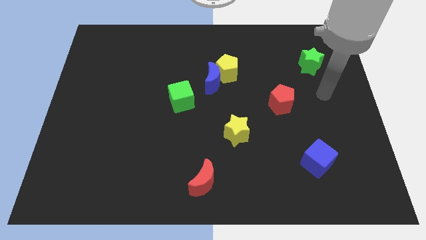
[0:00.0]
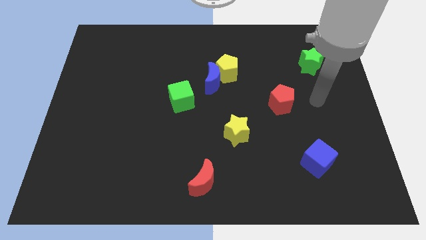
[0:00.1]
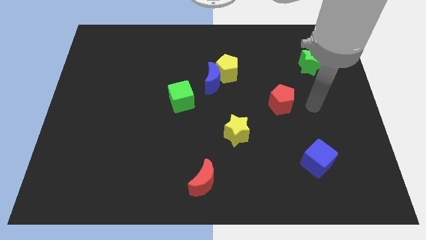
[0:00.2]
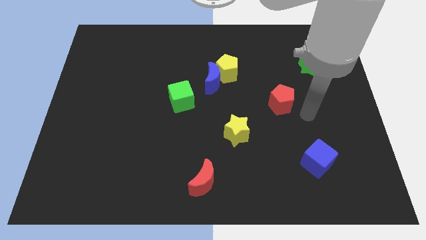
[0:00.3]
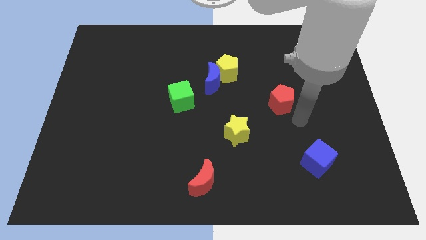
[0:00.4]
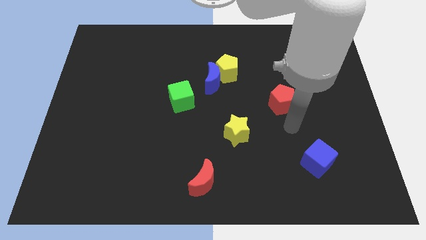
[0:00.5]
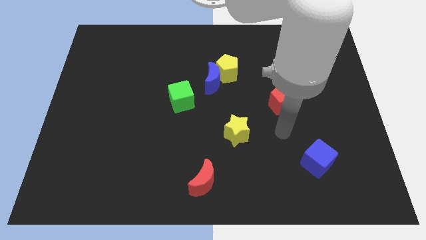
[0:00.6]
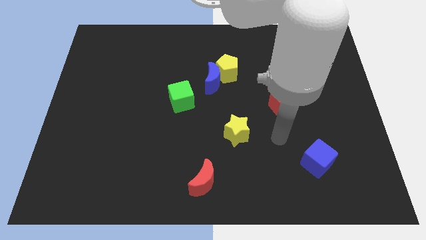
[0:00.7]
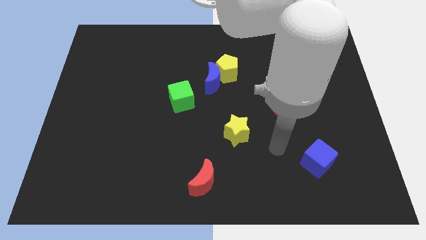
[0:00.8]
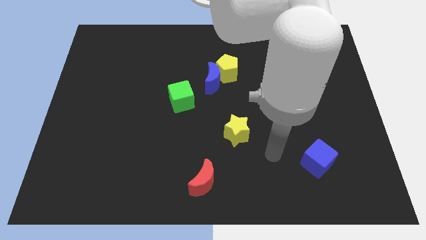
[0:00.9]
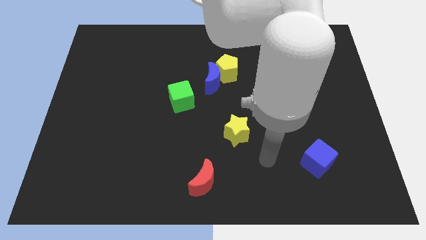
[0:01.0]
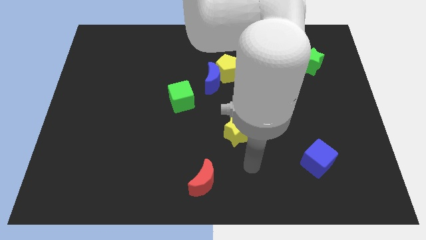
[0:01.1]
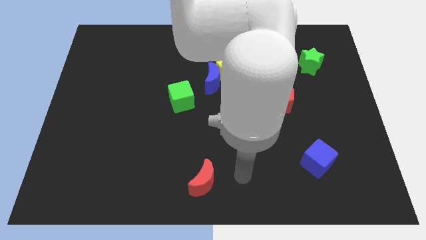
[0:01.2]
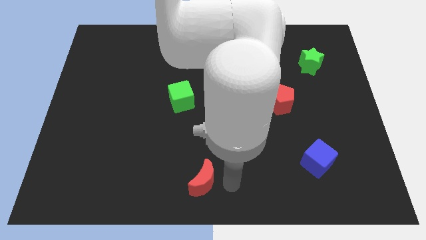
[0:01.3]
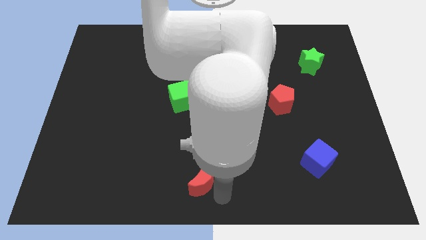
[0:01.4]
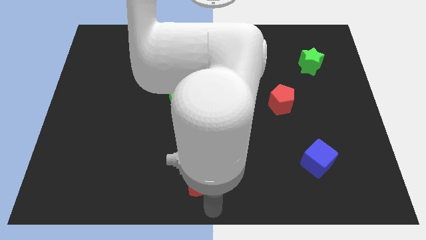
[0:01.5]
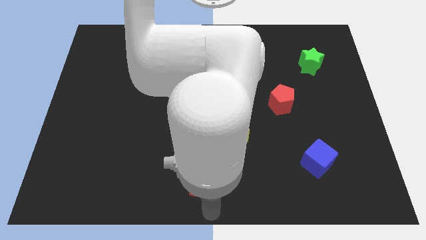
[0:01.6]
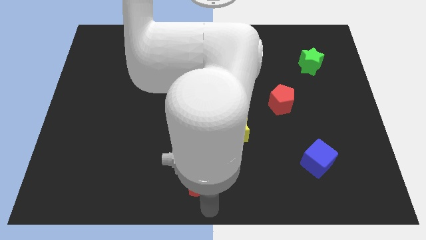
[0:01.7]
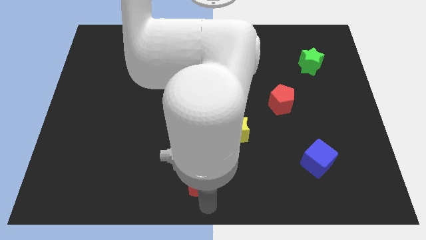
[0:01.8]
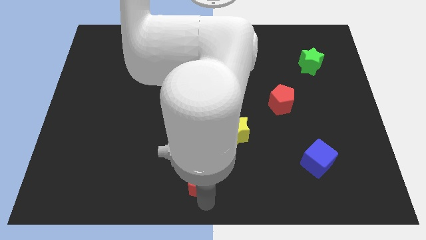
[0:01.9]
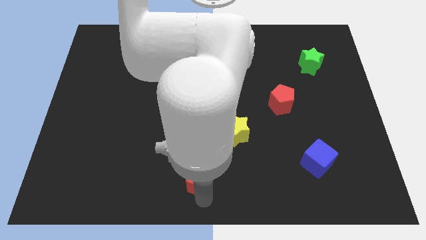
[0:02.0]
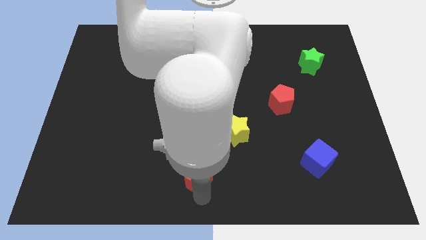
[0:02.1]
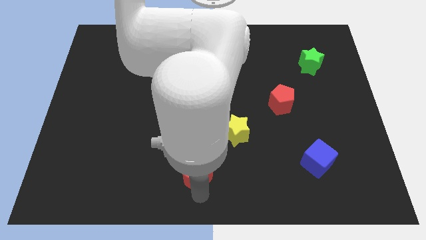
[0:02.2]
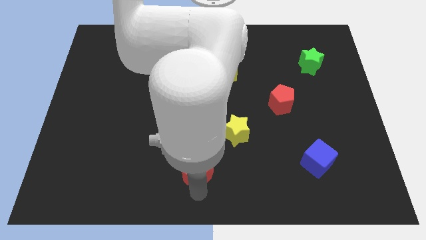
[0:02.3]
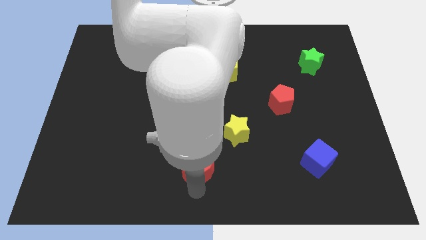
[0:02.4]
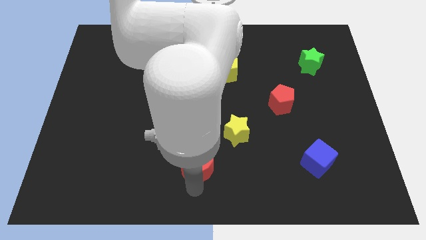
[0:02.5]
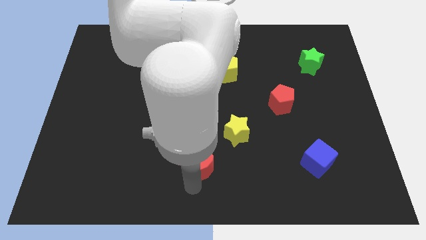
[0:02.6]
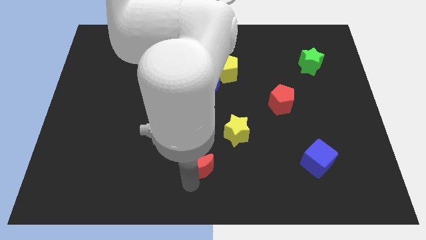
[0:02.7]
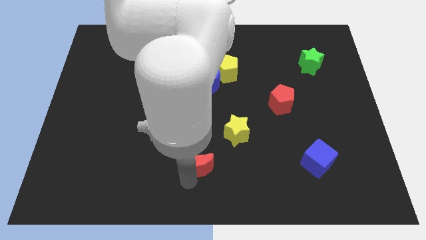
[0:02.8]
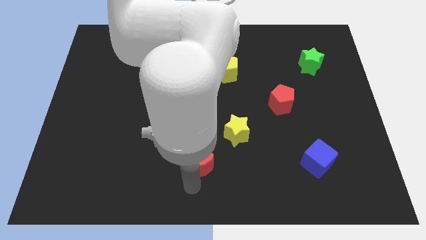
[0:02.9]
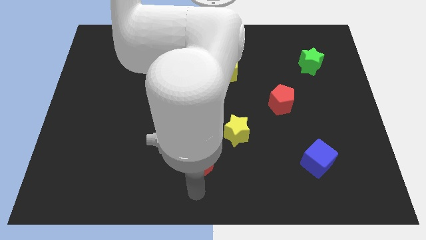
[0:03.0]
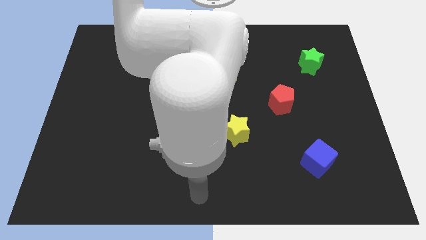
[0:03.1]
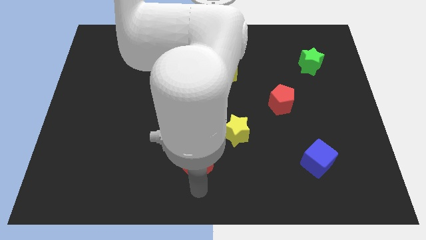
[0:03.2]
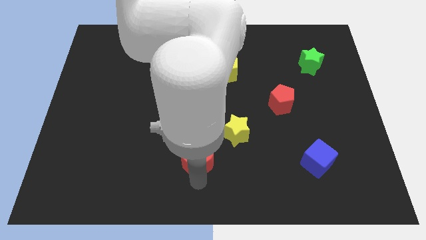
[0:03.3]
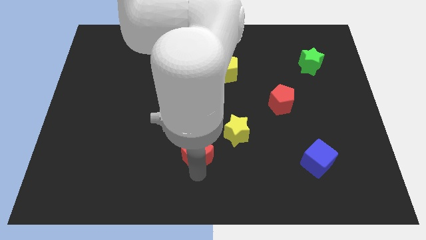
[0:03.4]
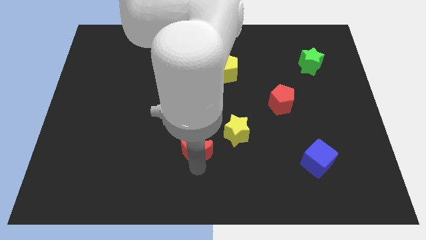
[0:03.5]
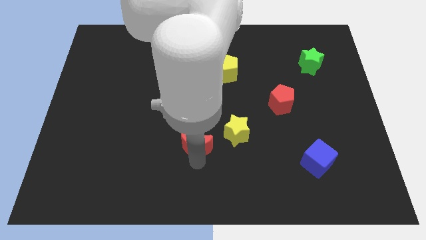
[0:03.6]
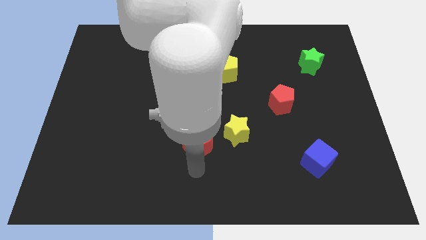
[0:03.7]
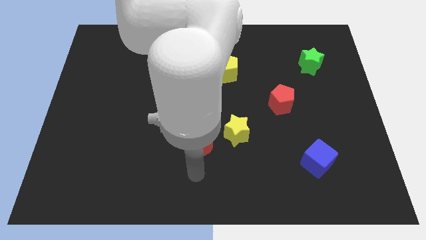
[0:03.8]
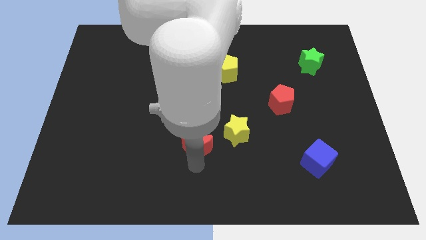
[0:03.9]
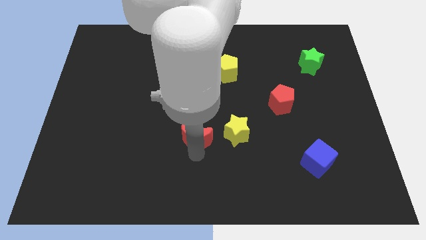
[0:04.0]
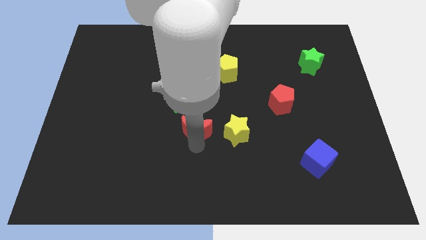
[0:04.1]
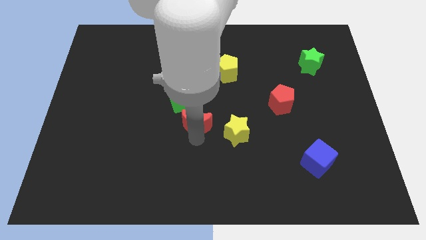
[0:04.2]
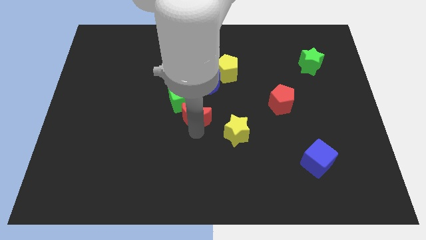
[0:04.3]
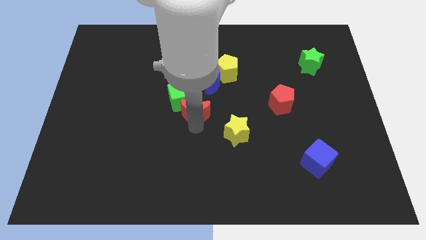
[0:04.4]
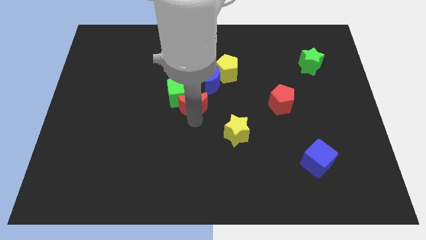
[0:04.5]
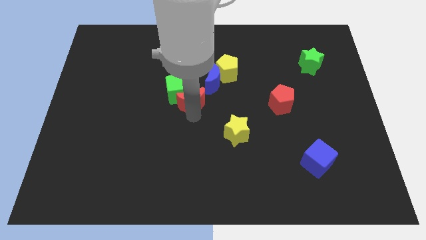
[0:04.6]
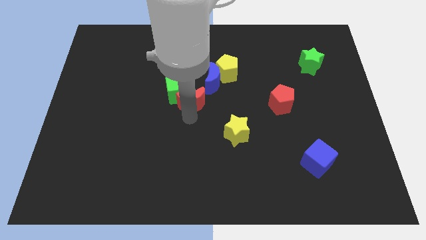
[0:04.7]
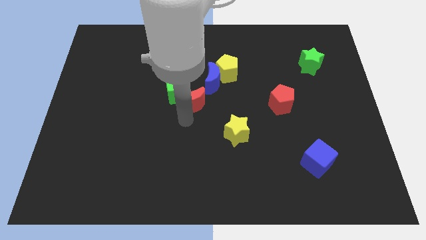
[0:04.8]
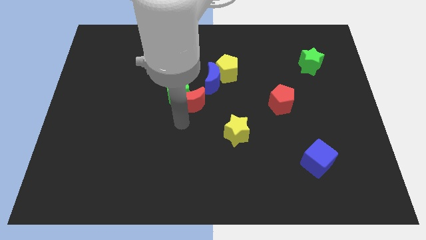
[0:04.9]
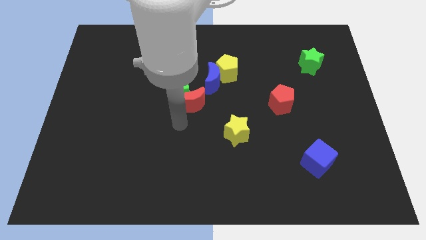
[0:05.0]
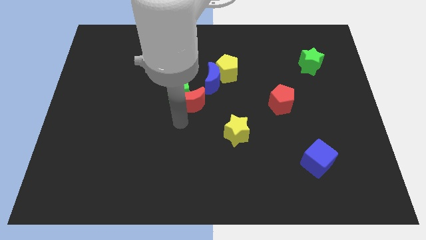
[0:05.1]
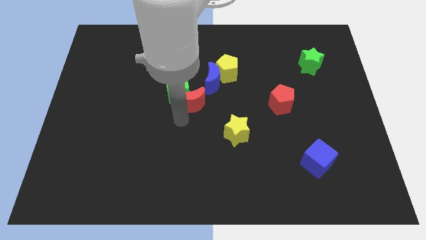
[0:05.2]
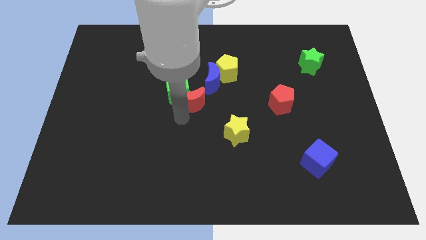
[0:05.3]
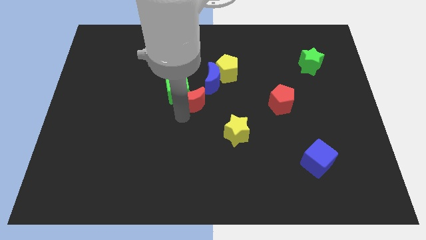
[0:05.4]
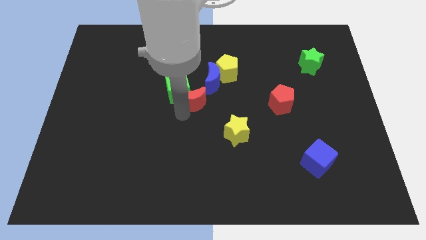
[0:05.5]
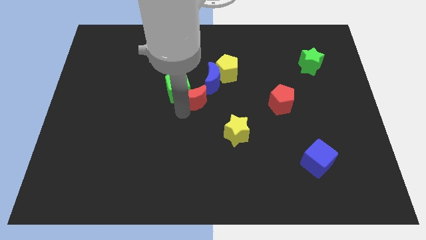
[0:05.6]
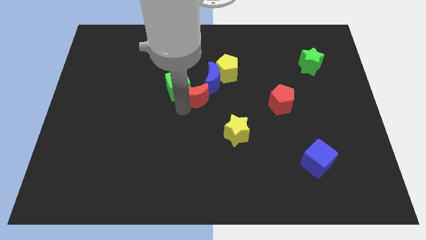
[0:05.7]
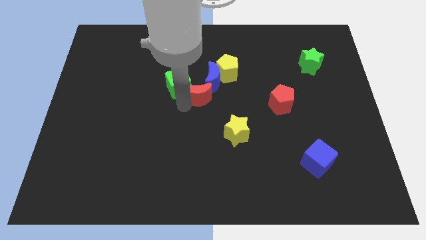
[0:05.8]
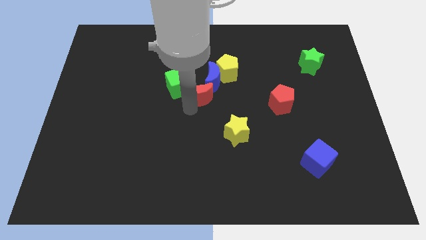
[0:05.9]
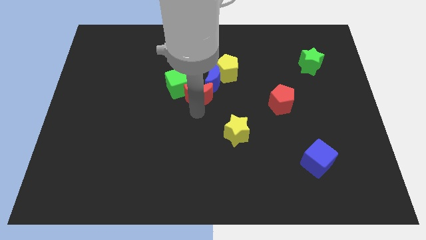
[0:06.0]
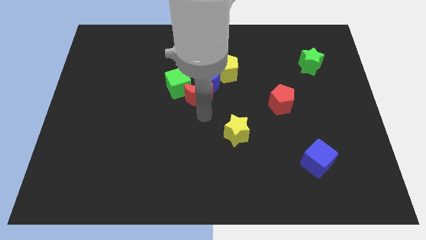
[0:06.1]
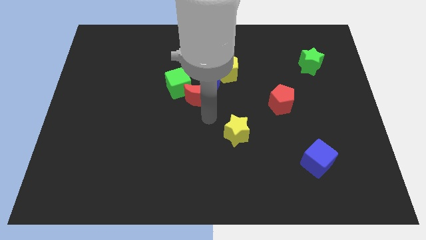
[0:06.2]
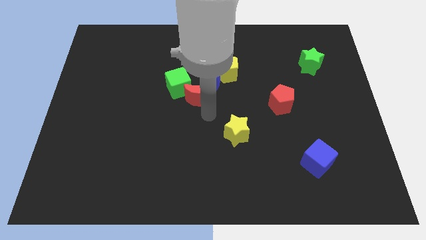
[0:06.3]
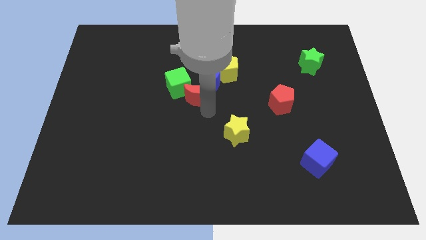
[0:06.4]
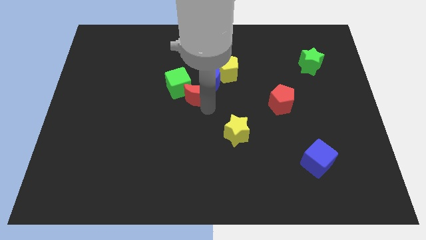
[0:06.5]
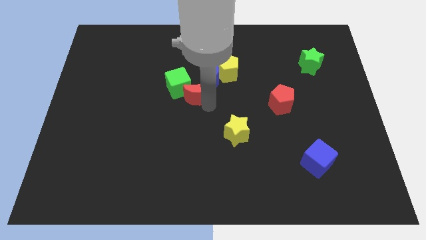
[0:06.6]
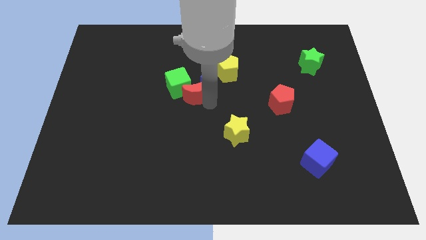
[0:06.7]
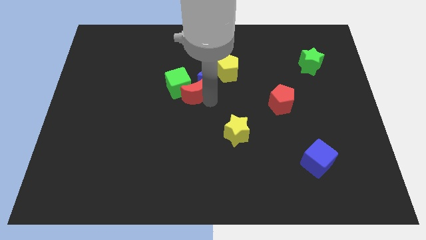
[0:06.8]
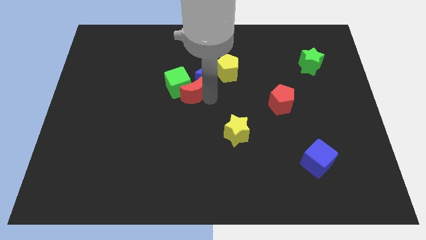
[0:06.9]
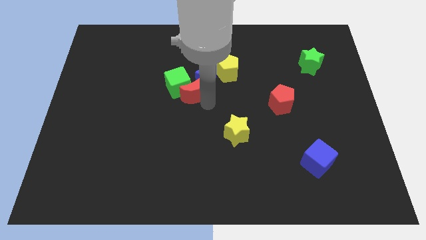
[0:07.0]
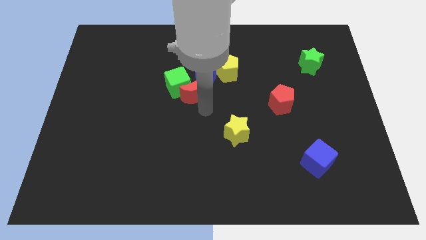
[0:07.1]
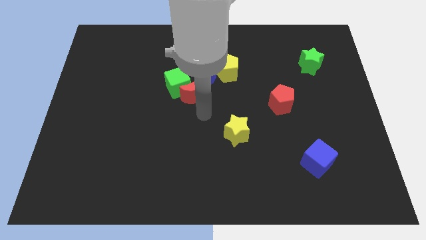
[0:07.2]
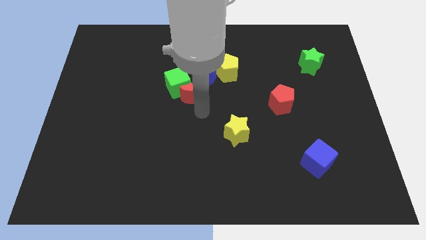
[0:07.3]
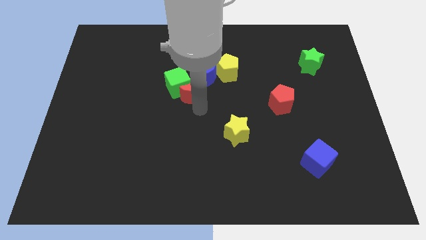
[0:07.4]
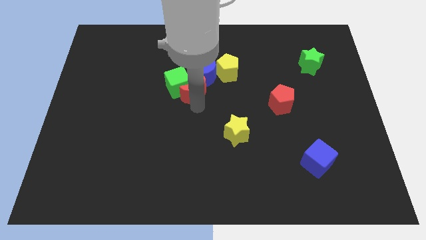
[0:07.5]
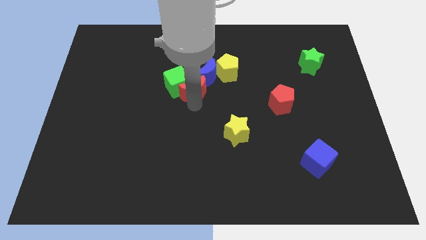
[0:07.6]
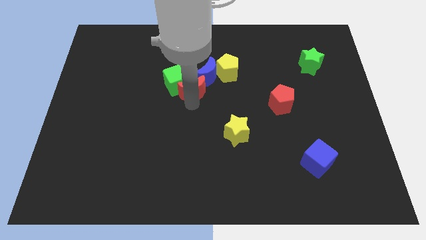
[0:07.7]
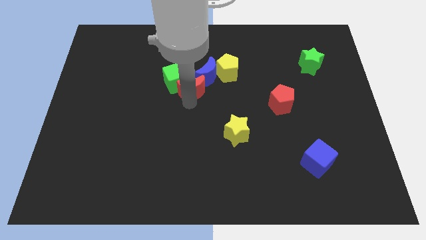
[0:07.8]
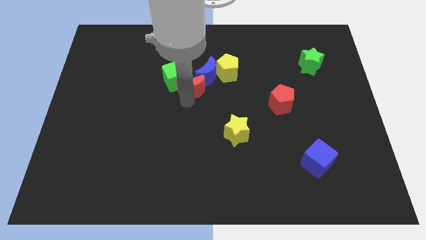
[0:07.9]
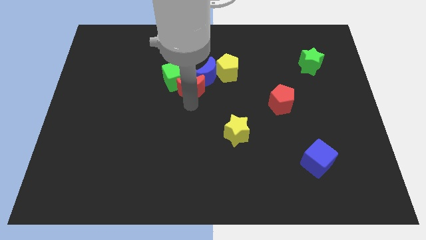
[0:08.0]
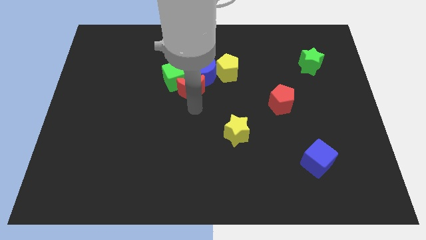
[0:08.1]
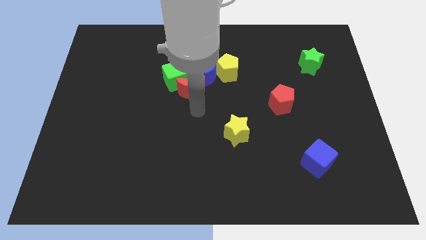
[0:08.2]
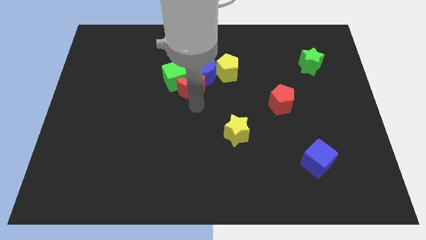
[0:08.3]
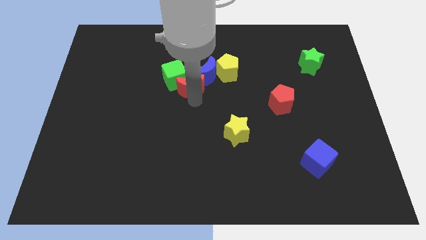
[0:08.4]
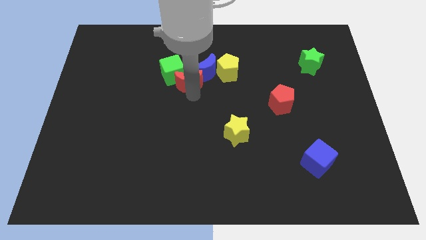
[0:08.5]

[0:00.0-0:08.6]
put the red moon just left of the yellow pentagon

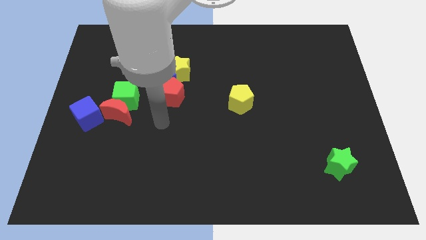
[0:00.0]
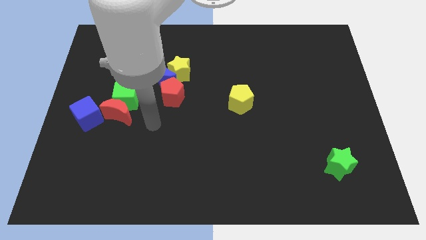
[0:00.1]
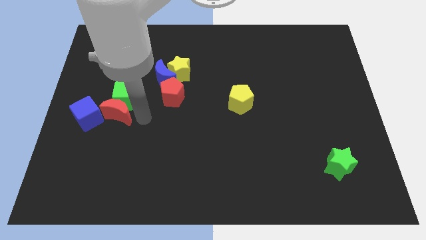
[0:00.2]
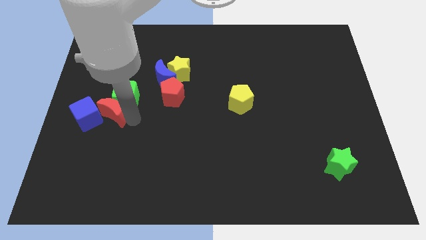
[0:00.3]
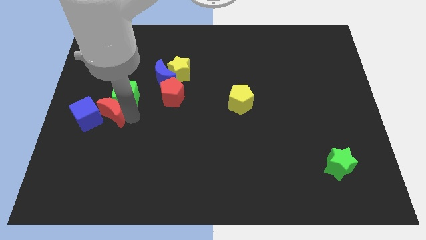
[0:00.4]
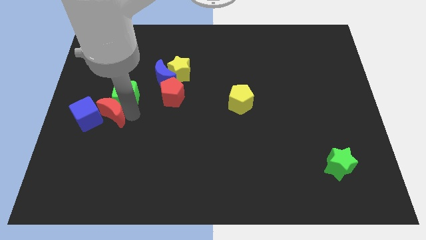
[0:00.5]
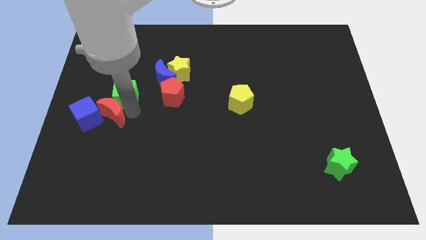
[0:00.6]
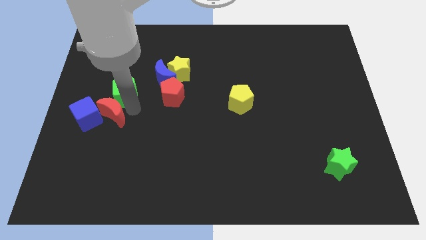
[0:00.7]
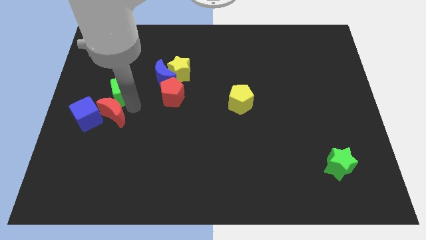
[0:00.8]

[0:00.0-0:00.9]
slide the green cube to the left of the blue moon
